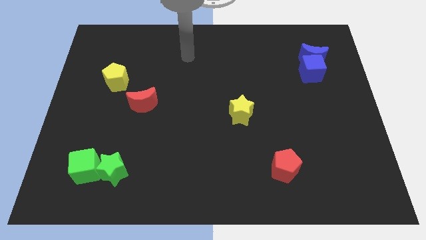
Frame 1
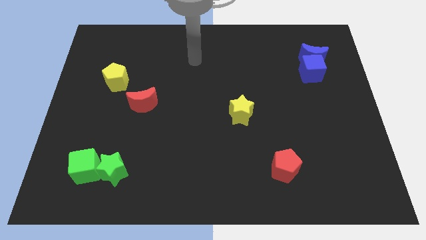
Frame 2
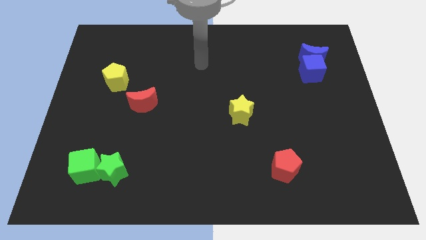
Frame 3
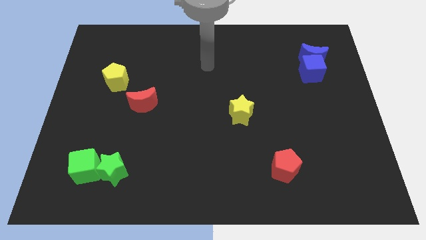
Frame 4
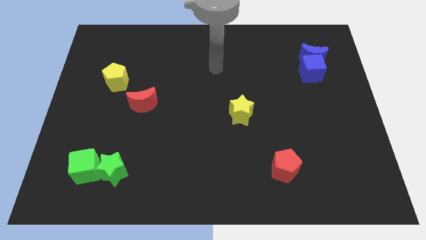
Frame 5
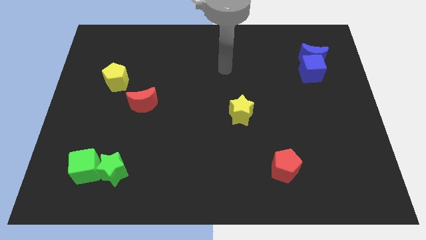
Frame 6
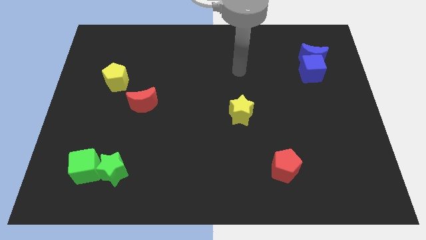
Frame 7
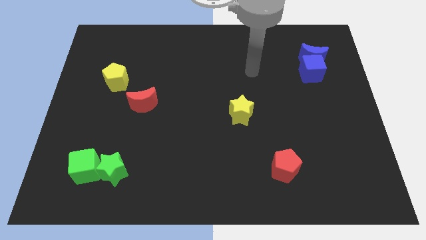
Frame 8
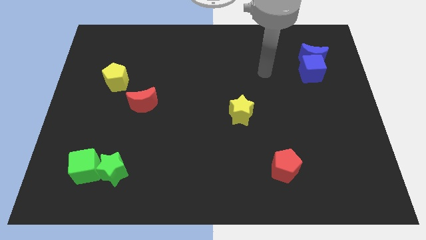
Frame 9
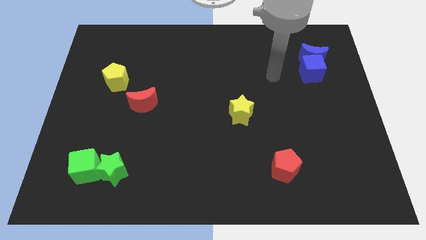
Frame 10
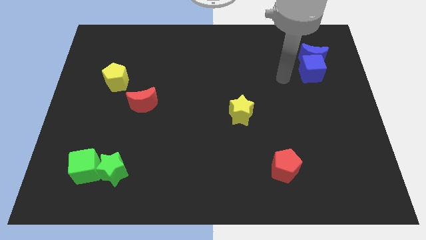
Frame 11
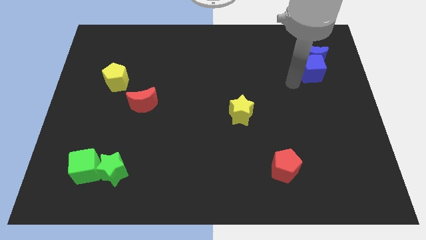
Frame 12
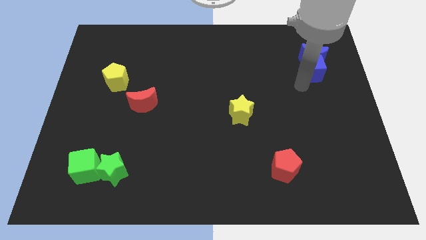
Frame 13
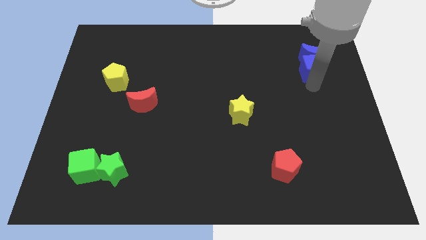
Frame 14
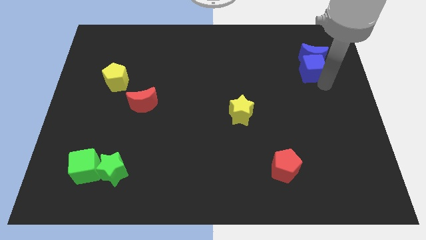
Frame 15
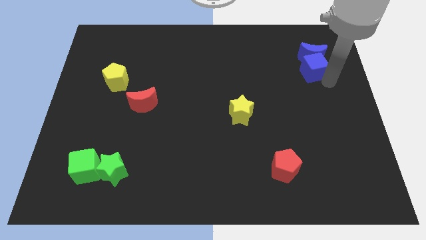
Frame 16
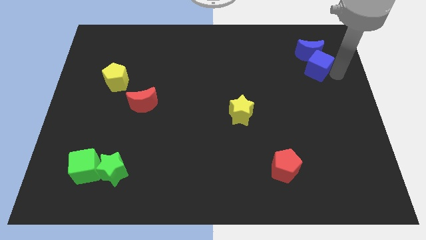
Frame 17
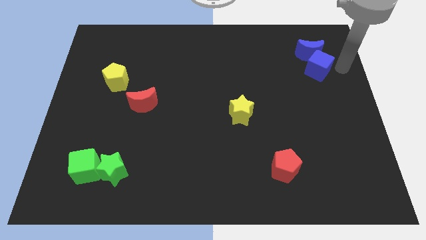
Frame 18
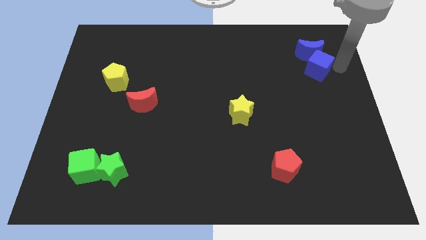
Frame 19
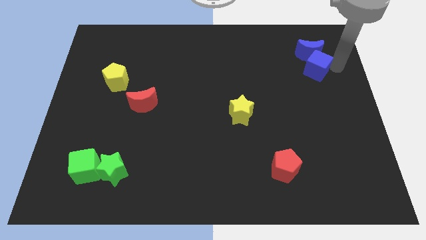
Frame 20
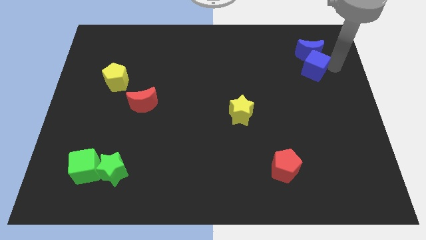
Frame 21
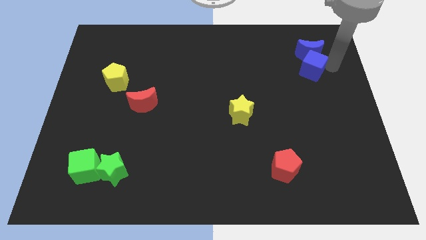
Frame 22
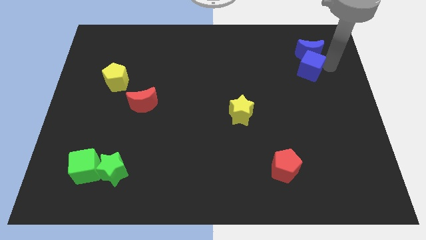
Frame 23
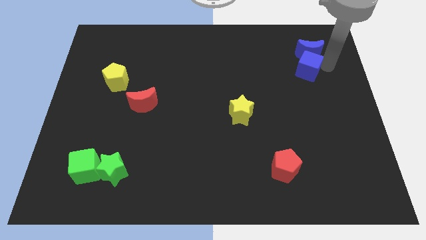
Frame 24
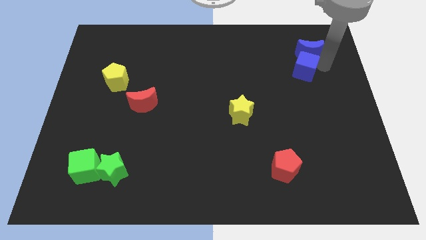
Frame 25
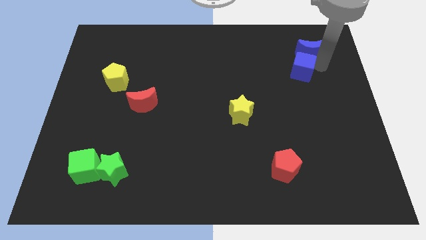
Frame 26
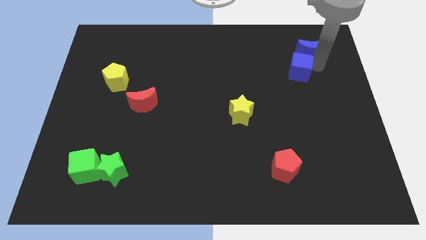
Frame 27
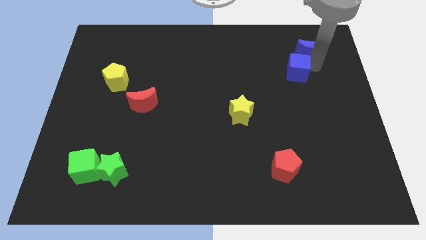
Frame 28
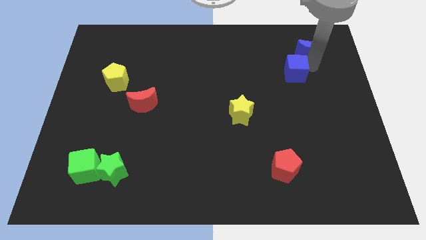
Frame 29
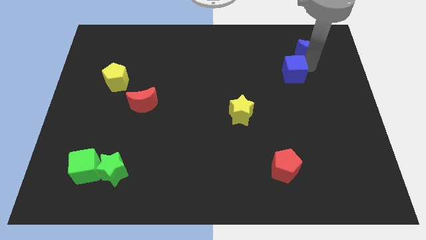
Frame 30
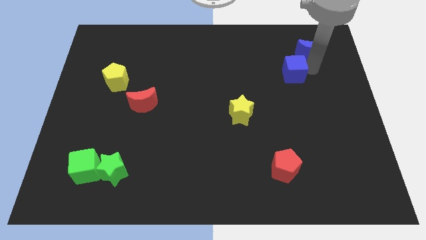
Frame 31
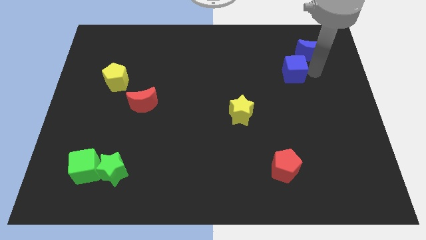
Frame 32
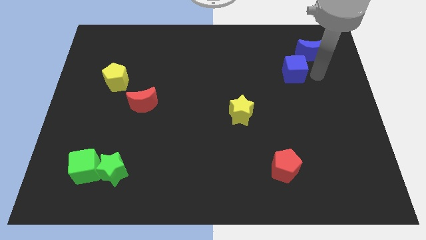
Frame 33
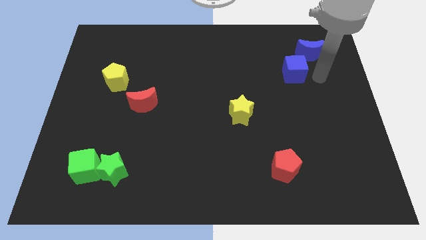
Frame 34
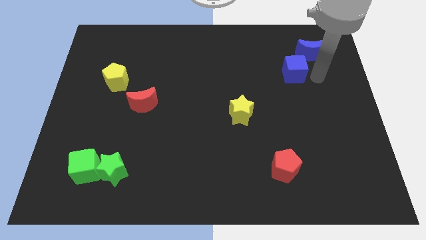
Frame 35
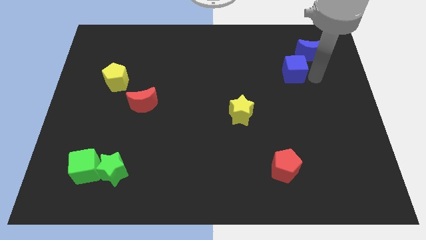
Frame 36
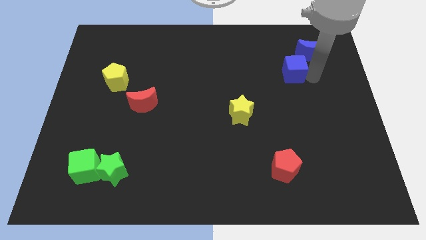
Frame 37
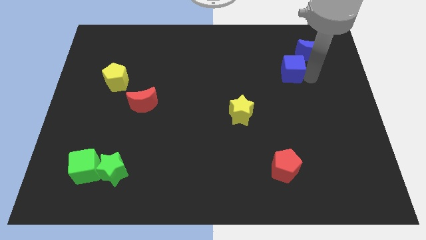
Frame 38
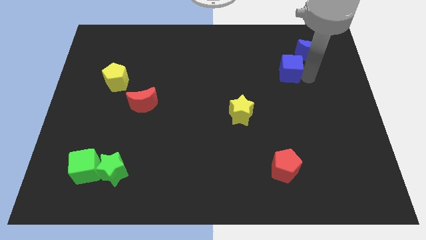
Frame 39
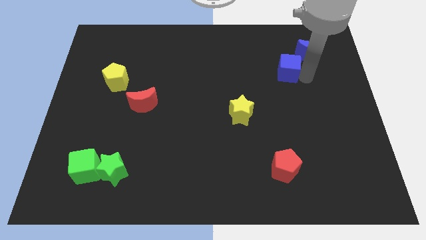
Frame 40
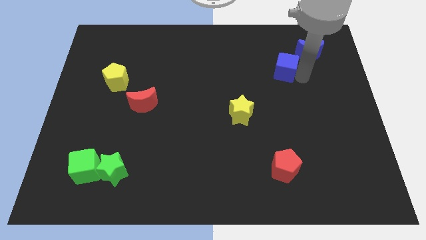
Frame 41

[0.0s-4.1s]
push the blue cube left a little bit

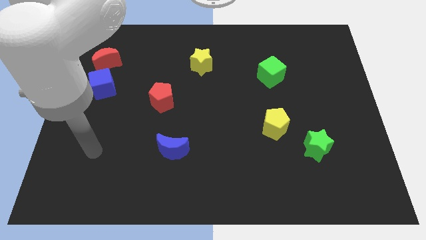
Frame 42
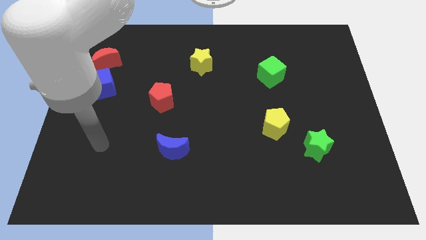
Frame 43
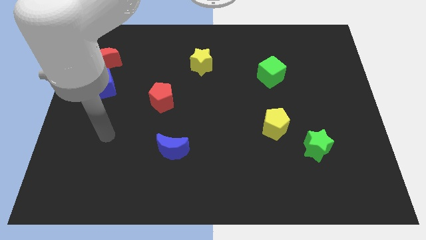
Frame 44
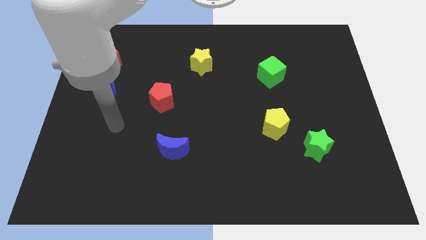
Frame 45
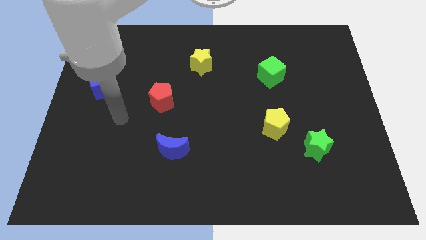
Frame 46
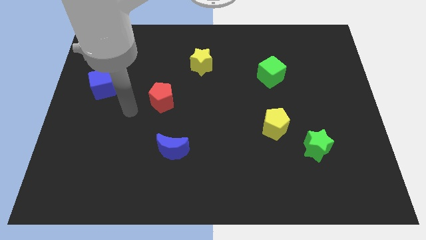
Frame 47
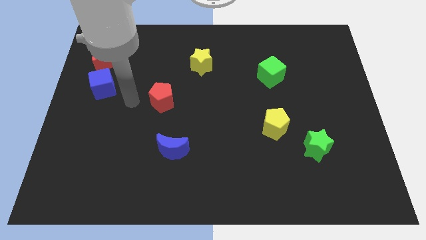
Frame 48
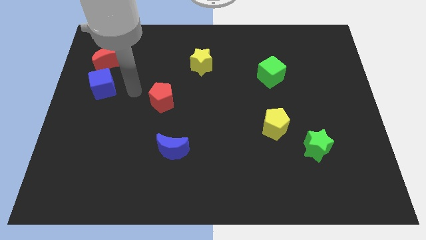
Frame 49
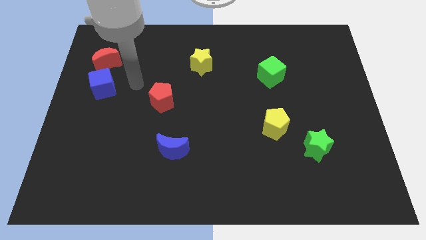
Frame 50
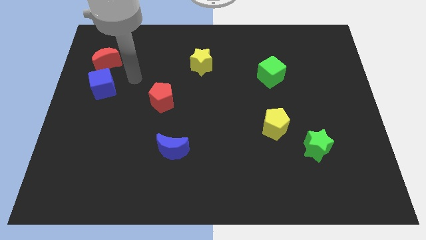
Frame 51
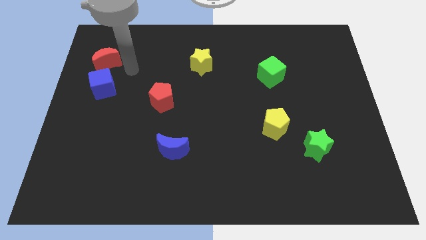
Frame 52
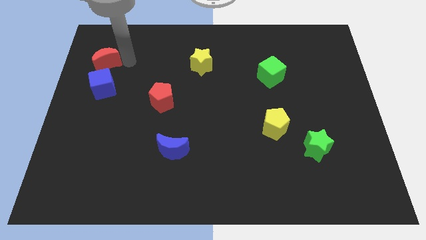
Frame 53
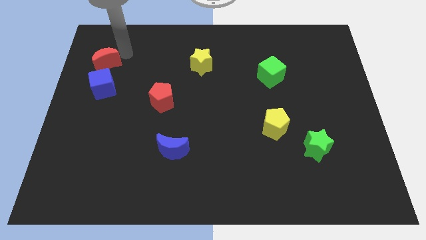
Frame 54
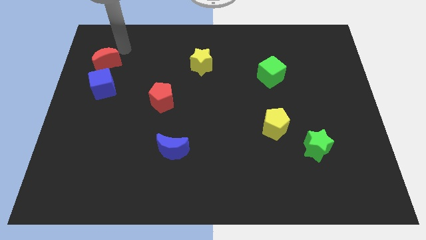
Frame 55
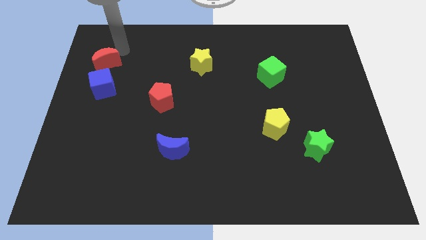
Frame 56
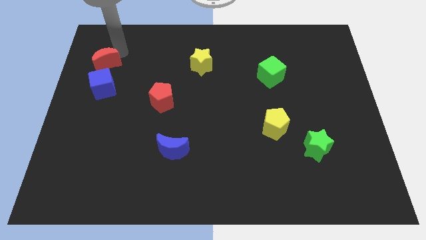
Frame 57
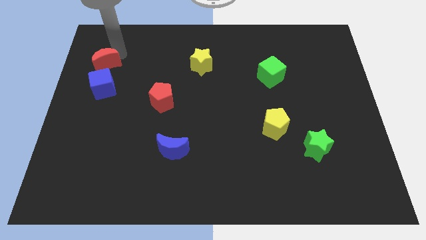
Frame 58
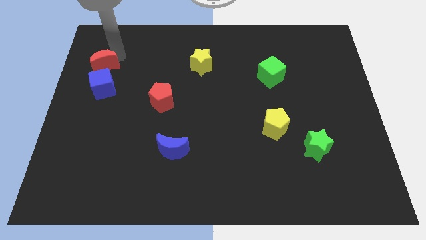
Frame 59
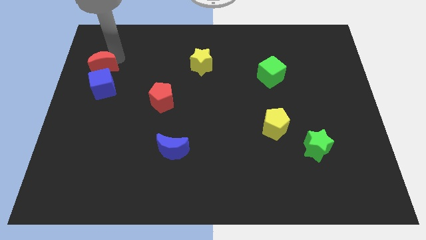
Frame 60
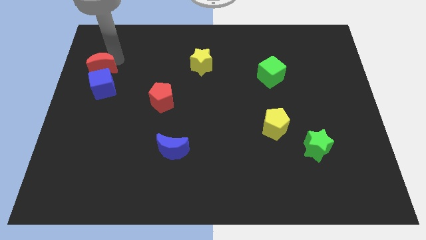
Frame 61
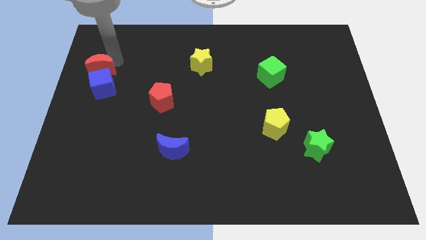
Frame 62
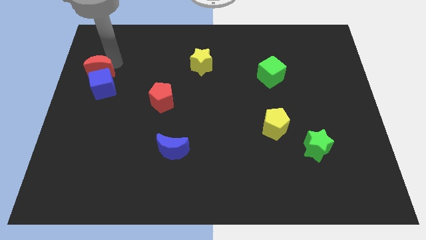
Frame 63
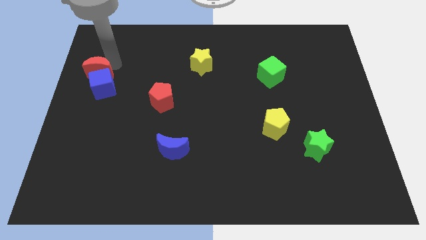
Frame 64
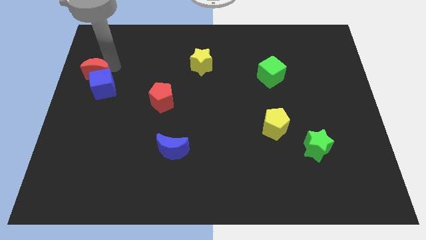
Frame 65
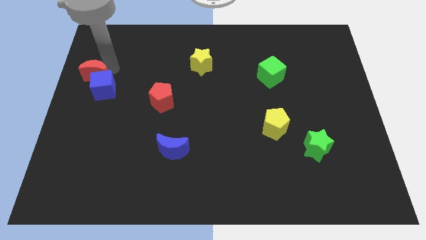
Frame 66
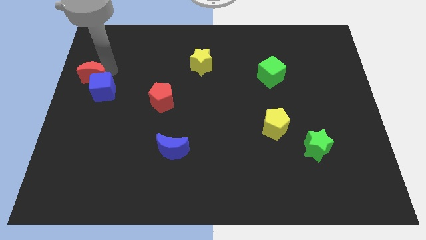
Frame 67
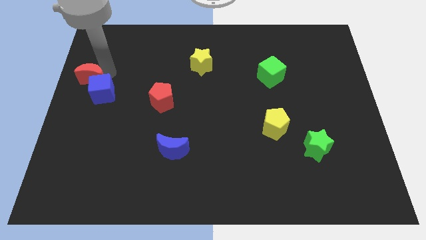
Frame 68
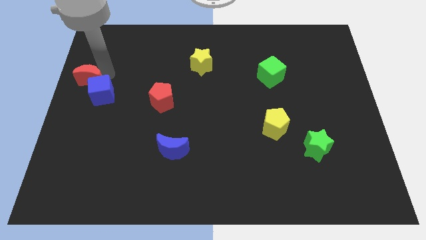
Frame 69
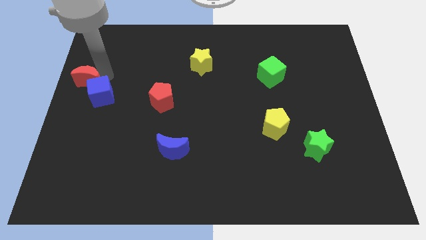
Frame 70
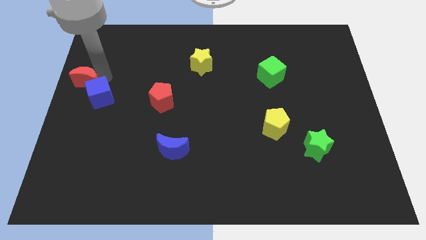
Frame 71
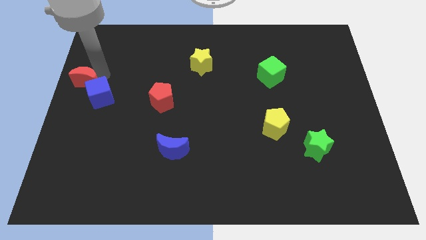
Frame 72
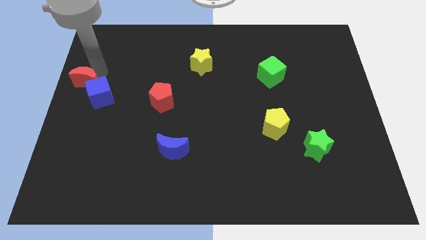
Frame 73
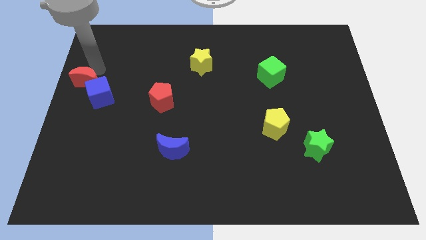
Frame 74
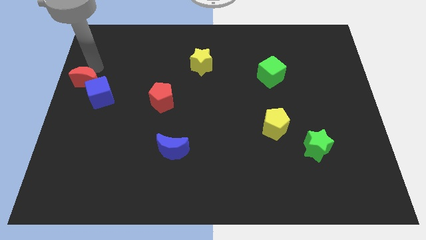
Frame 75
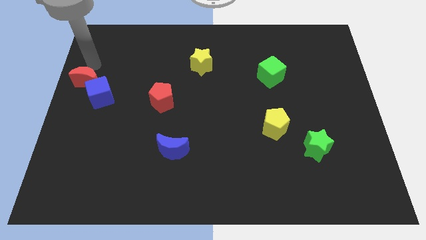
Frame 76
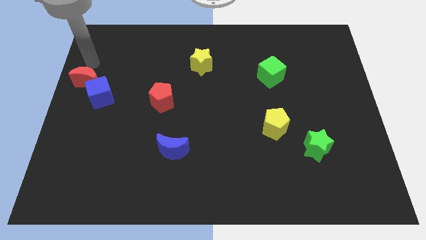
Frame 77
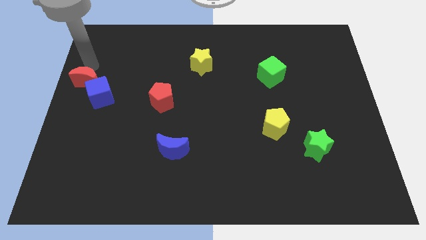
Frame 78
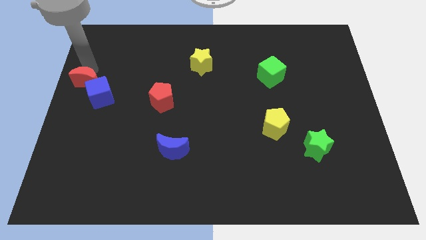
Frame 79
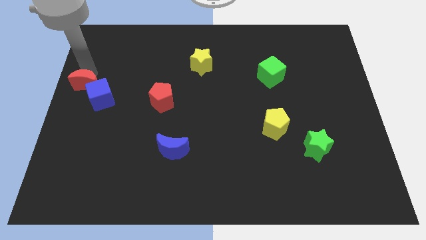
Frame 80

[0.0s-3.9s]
push the red moon somewhat downwards

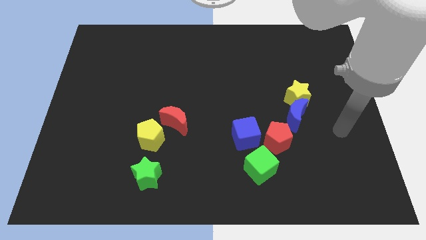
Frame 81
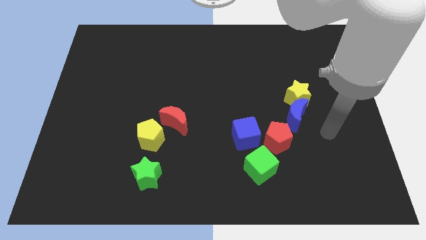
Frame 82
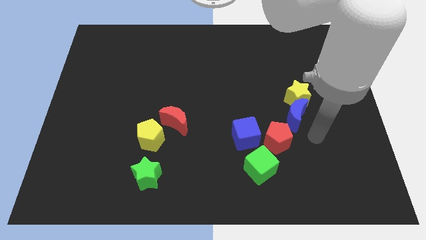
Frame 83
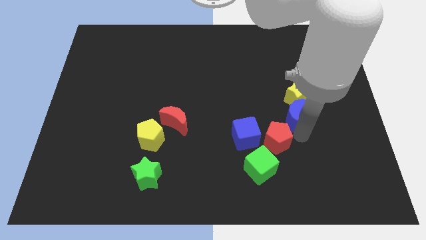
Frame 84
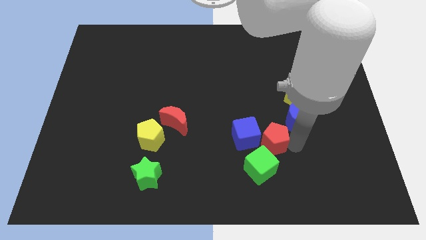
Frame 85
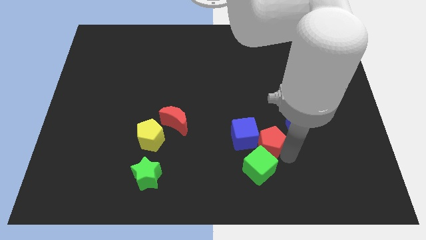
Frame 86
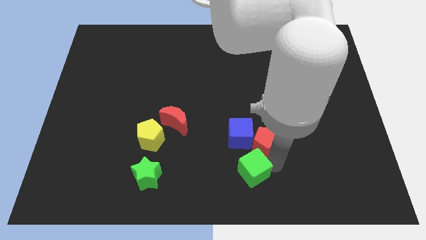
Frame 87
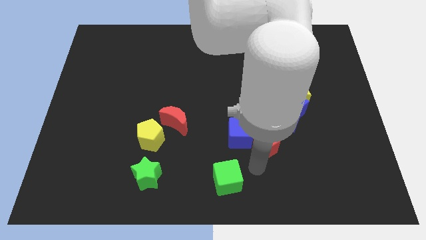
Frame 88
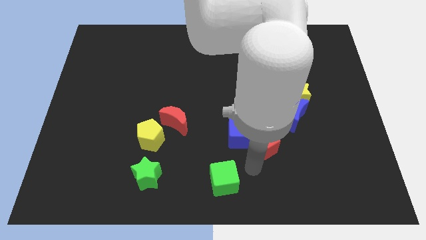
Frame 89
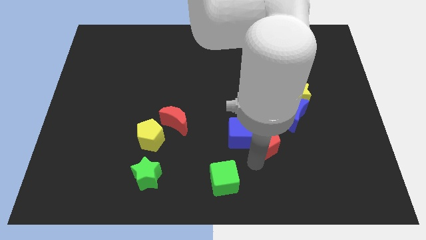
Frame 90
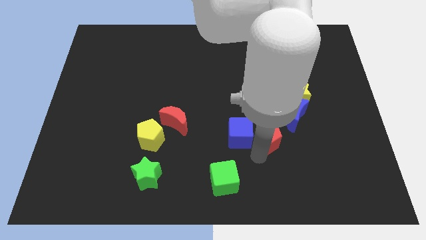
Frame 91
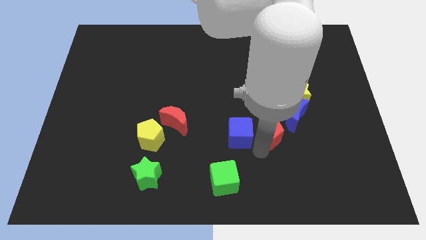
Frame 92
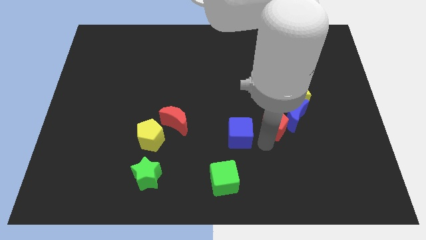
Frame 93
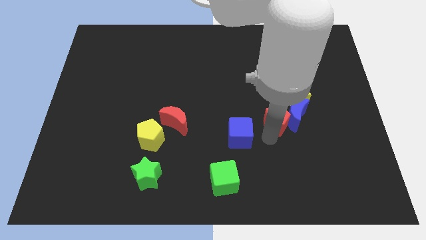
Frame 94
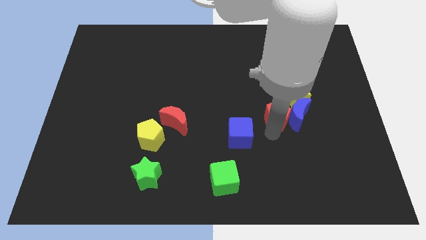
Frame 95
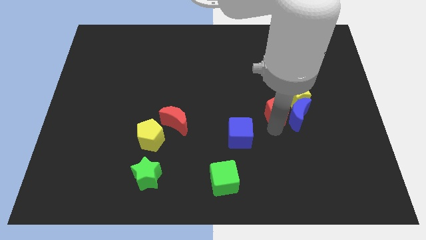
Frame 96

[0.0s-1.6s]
slightly push the red pentagon upwards
